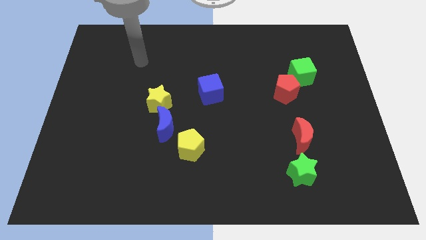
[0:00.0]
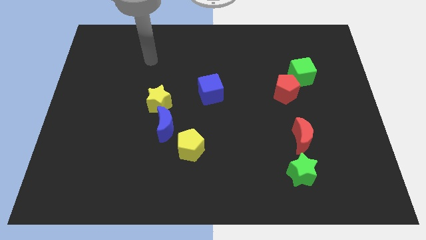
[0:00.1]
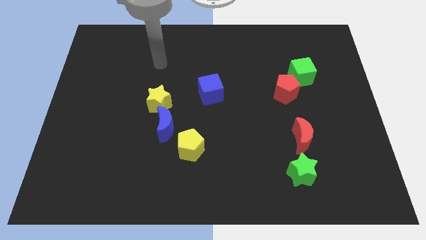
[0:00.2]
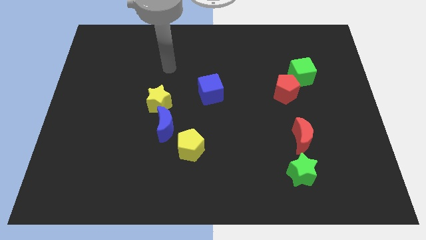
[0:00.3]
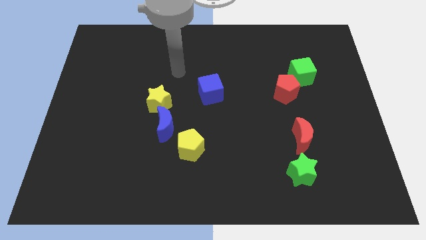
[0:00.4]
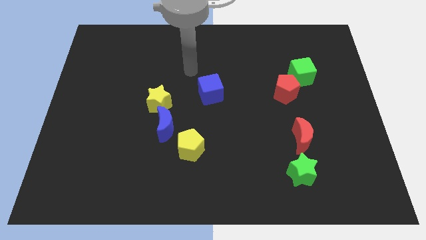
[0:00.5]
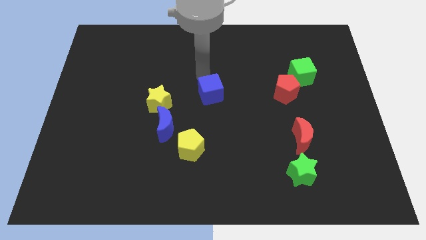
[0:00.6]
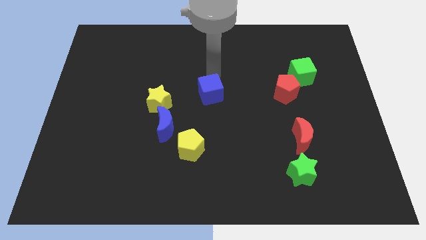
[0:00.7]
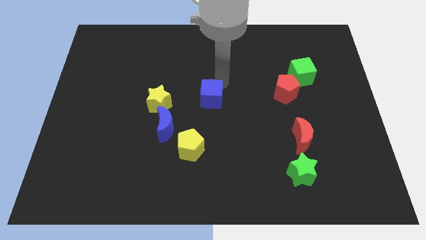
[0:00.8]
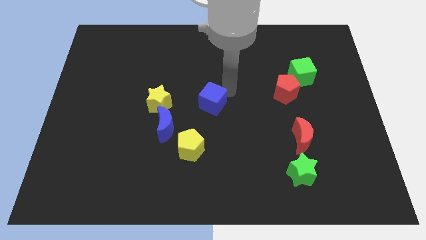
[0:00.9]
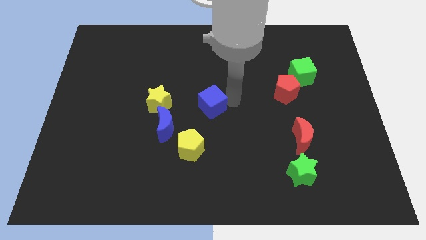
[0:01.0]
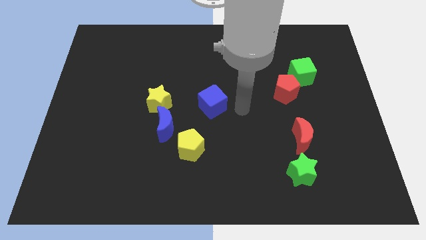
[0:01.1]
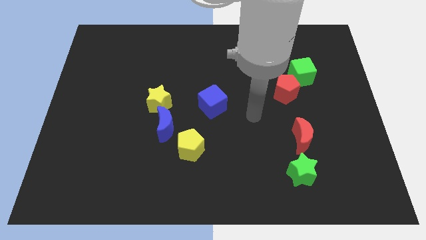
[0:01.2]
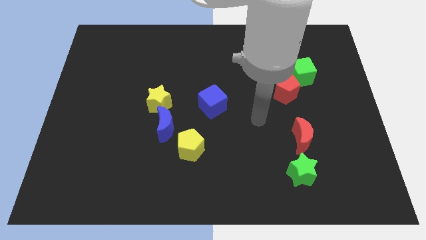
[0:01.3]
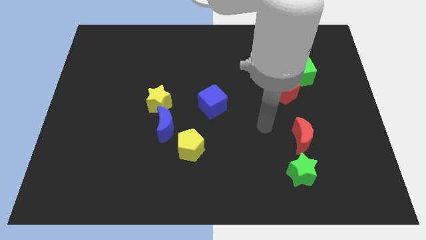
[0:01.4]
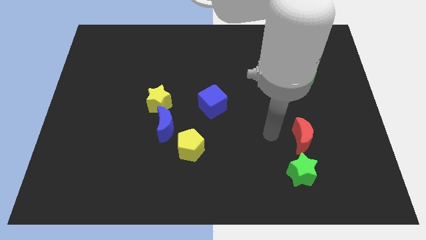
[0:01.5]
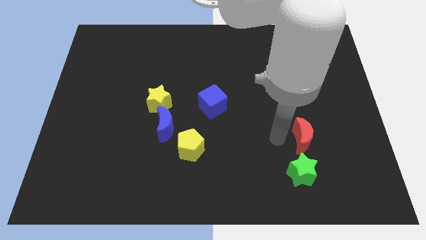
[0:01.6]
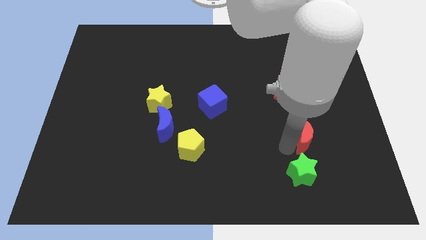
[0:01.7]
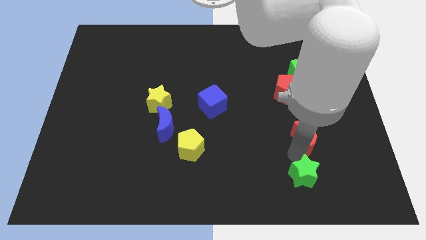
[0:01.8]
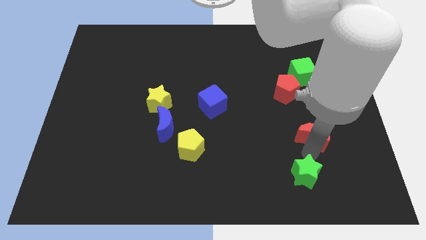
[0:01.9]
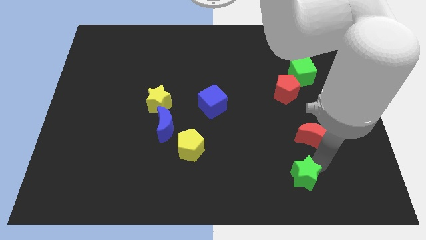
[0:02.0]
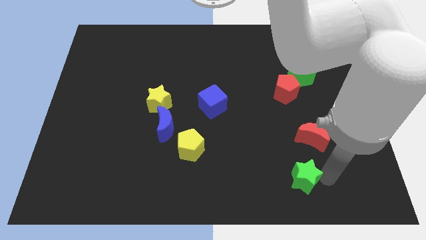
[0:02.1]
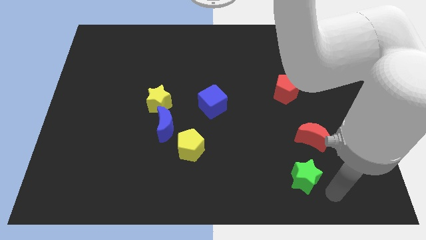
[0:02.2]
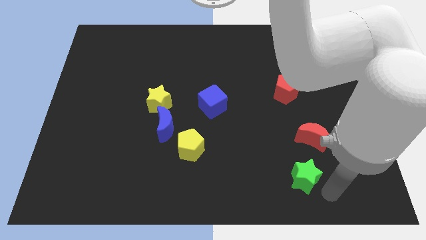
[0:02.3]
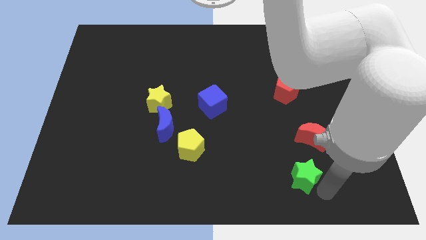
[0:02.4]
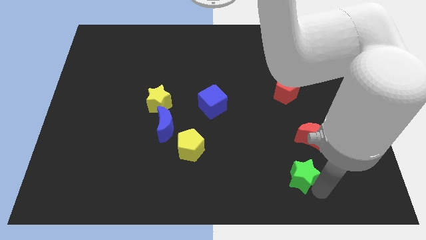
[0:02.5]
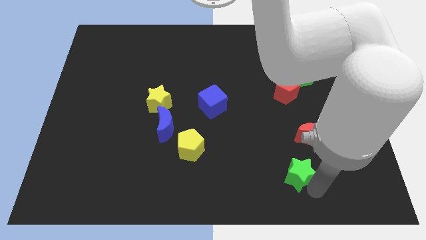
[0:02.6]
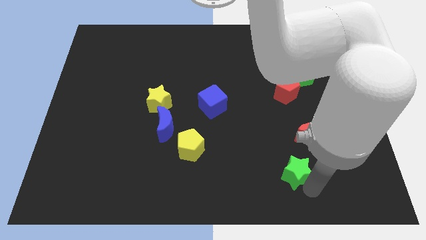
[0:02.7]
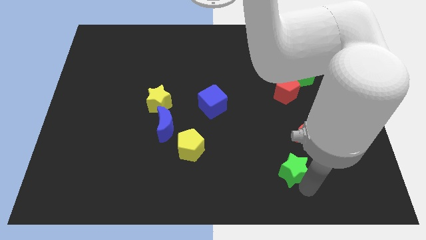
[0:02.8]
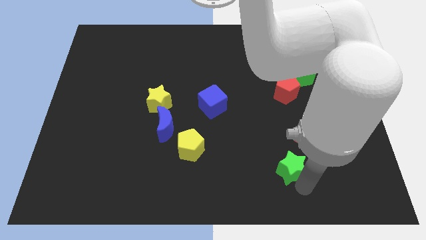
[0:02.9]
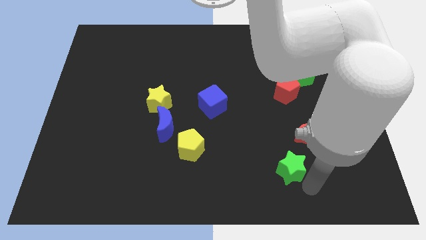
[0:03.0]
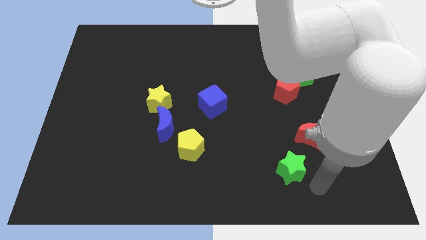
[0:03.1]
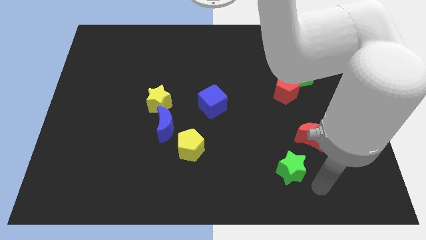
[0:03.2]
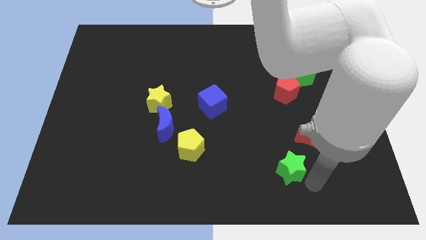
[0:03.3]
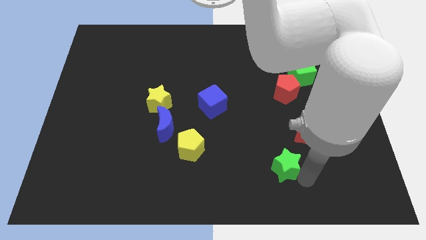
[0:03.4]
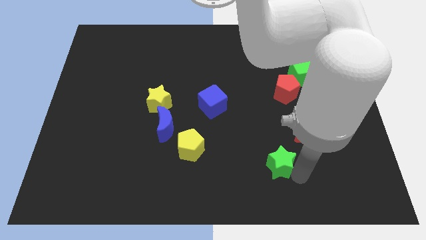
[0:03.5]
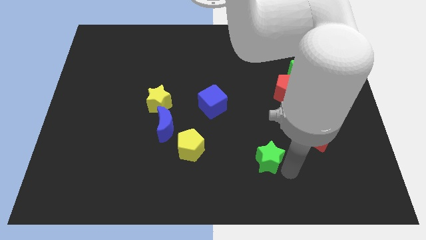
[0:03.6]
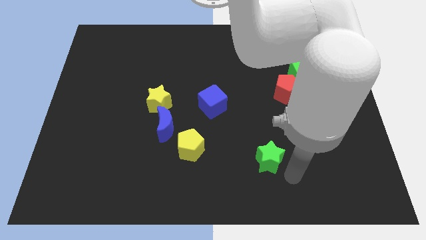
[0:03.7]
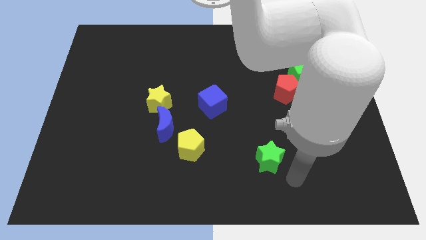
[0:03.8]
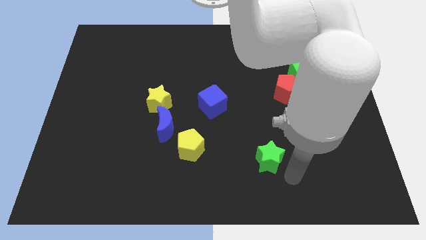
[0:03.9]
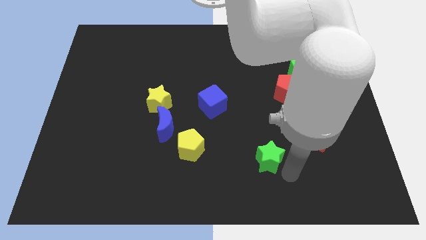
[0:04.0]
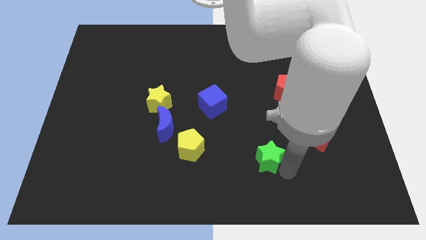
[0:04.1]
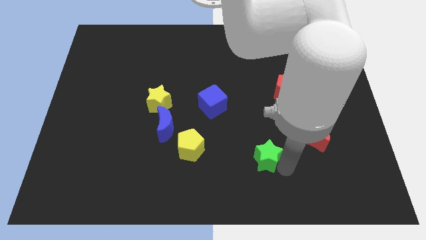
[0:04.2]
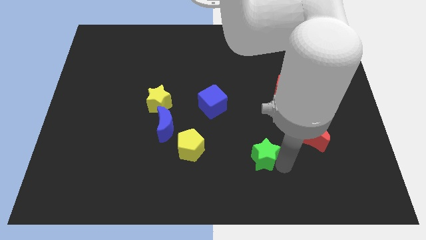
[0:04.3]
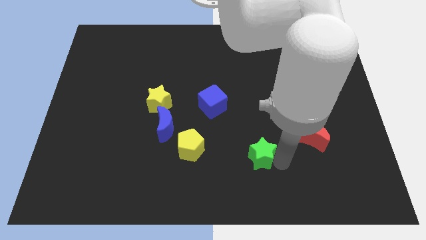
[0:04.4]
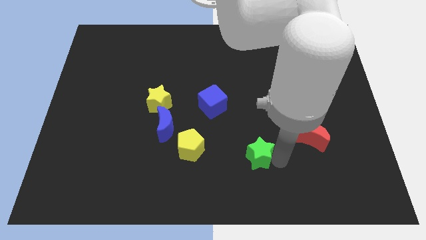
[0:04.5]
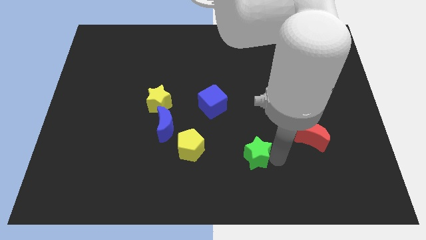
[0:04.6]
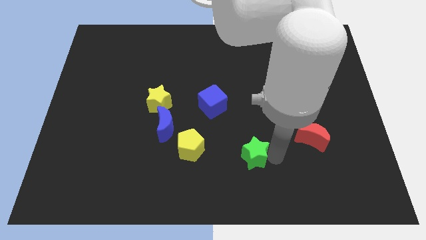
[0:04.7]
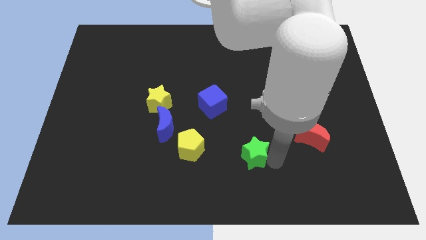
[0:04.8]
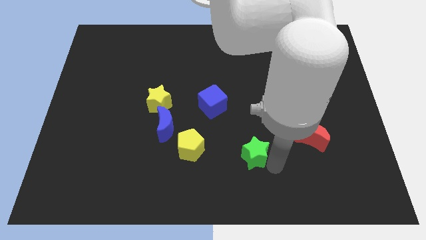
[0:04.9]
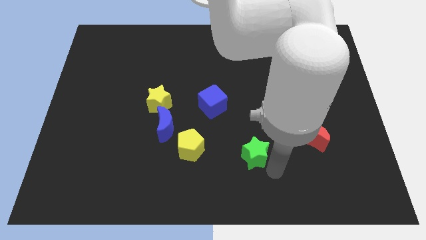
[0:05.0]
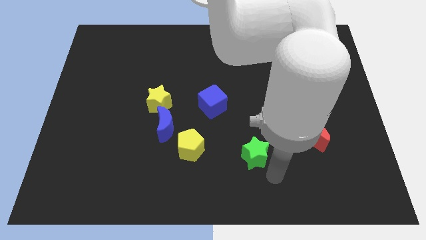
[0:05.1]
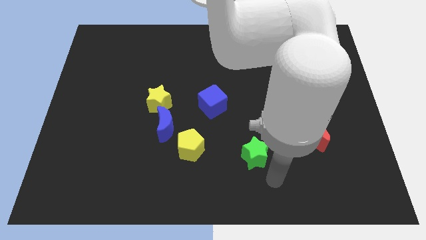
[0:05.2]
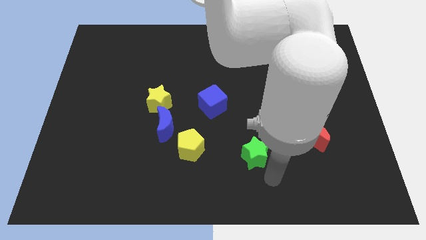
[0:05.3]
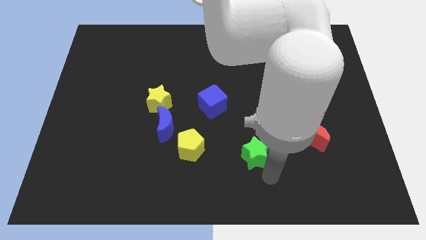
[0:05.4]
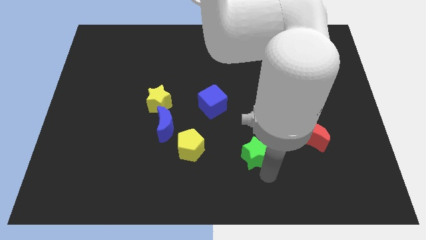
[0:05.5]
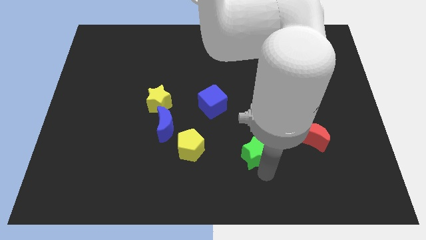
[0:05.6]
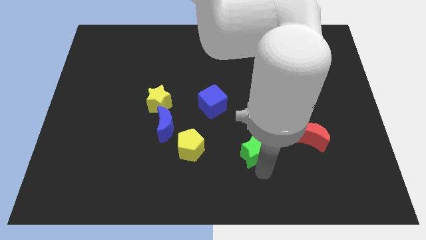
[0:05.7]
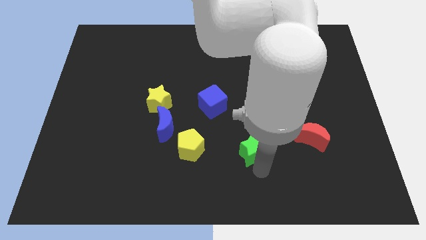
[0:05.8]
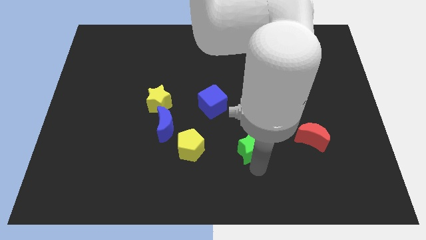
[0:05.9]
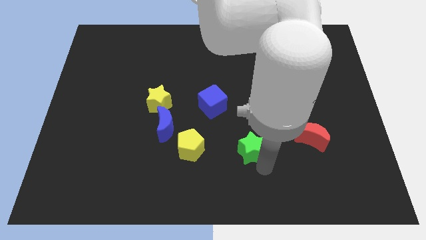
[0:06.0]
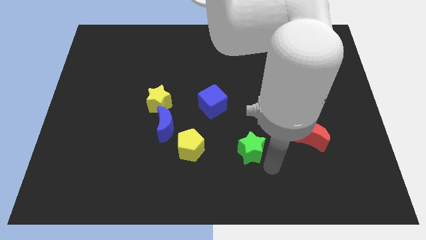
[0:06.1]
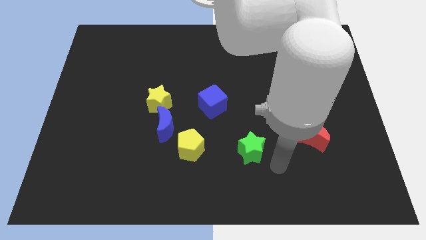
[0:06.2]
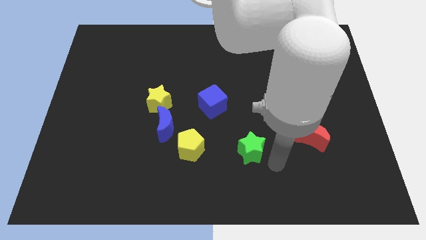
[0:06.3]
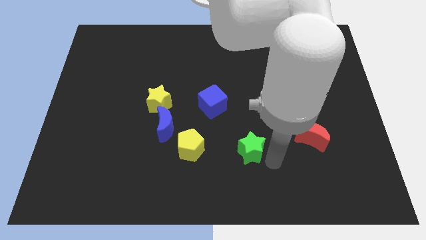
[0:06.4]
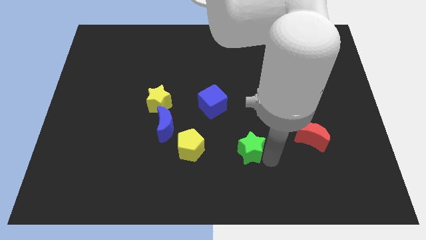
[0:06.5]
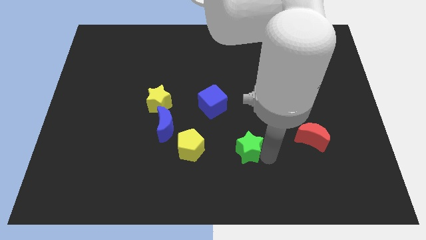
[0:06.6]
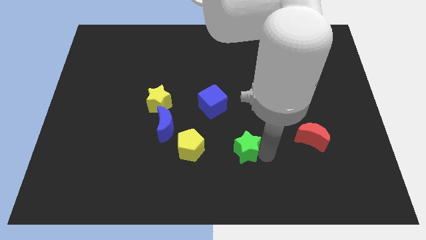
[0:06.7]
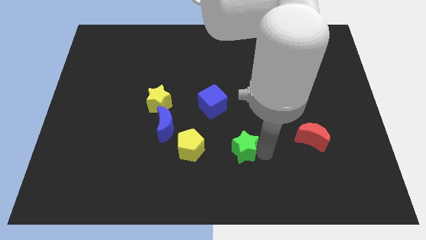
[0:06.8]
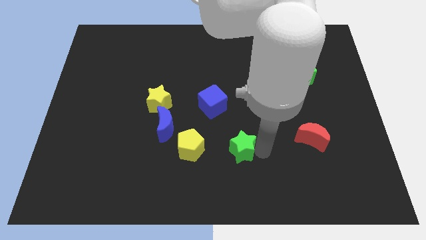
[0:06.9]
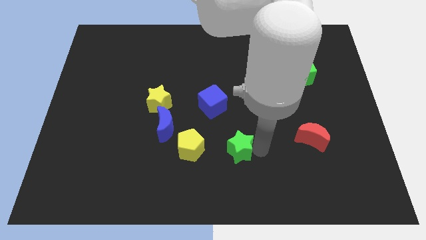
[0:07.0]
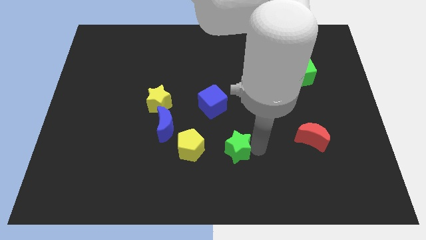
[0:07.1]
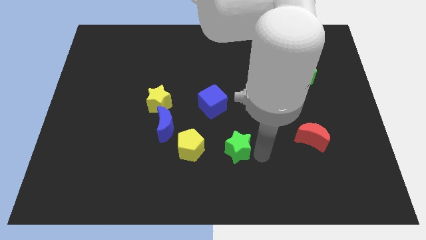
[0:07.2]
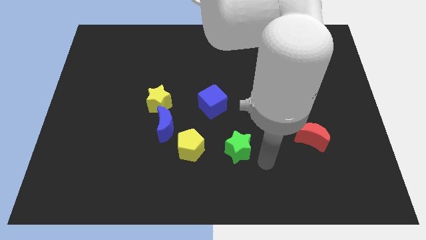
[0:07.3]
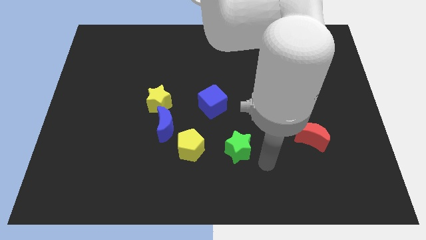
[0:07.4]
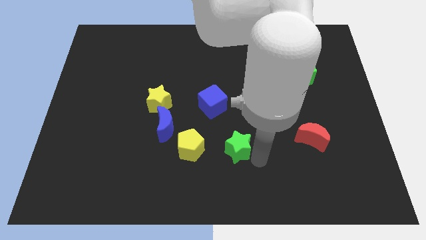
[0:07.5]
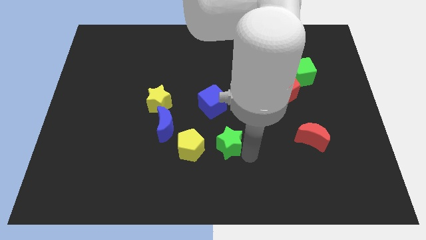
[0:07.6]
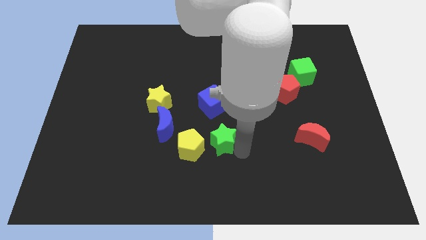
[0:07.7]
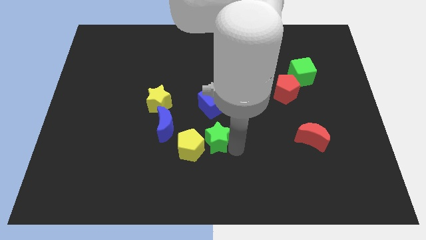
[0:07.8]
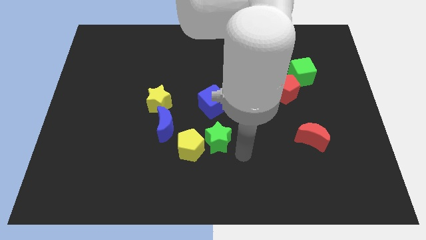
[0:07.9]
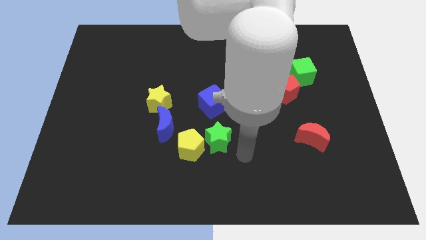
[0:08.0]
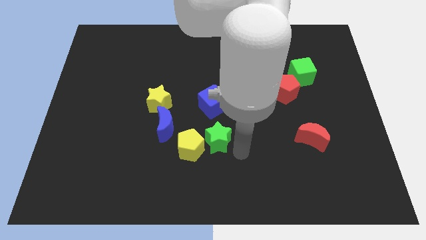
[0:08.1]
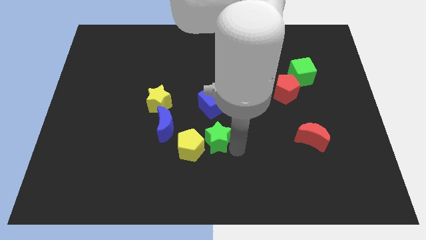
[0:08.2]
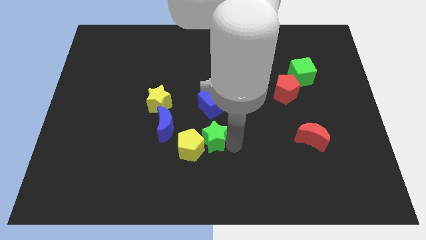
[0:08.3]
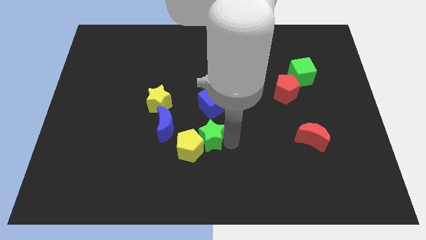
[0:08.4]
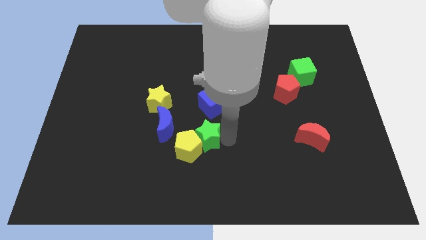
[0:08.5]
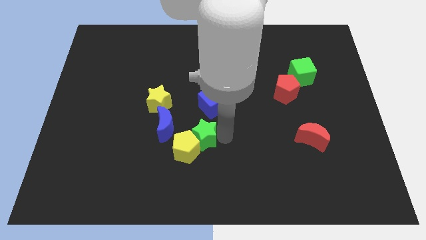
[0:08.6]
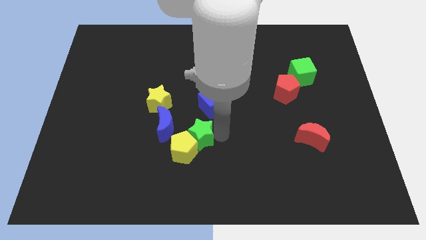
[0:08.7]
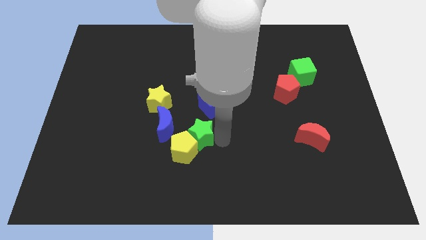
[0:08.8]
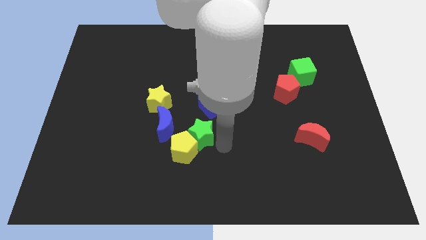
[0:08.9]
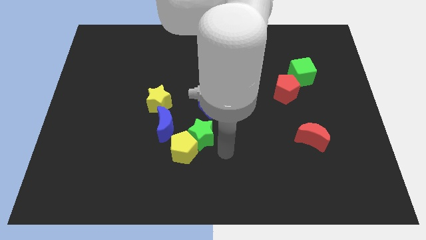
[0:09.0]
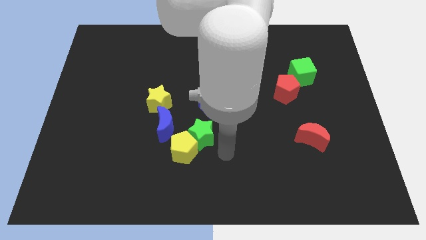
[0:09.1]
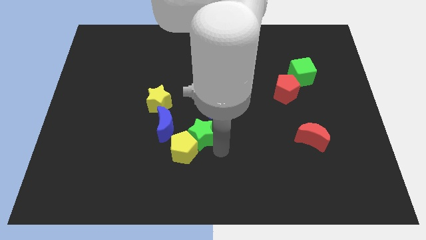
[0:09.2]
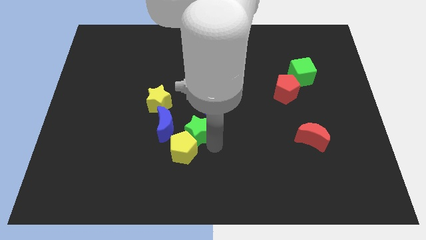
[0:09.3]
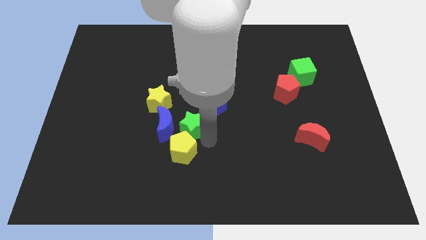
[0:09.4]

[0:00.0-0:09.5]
put the green star to the bottom right of the yellow star
